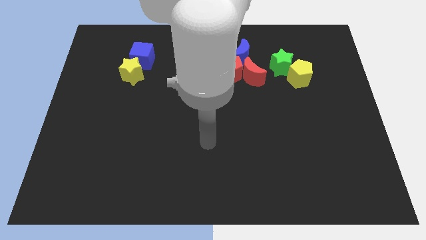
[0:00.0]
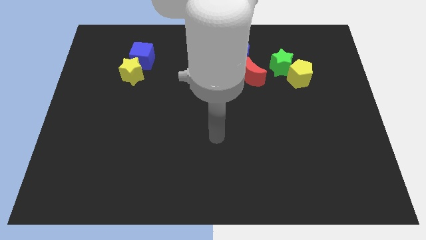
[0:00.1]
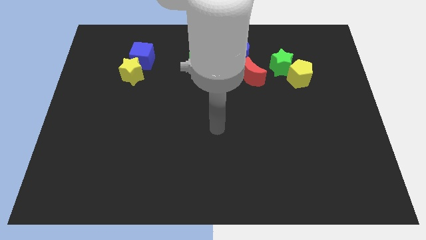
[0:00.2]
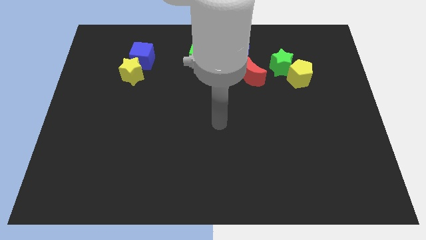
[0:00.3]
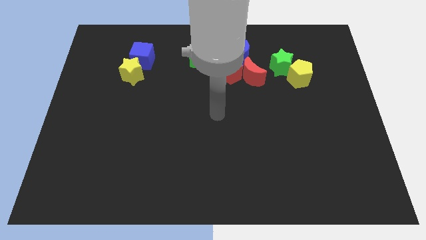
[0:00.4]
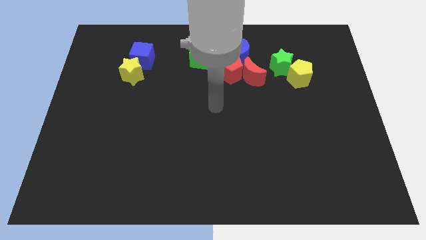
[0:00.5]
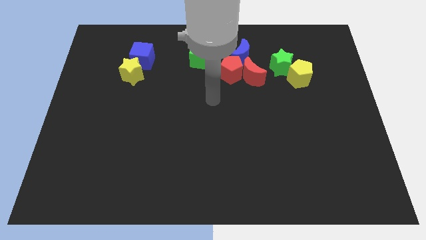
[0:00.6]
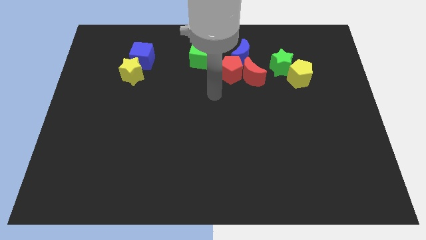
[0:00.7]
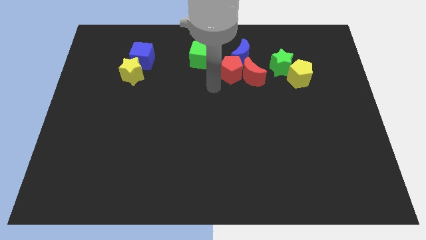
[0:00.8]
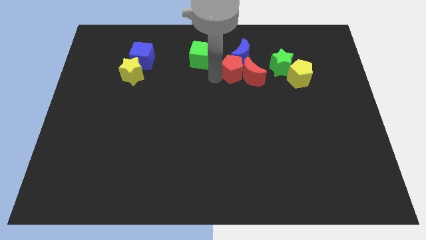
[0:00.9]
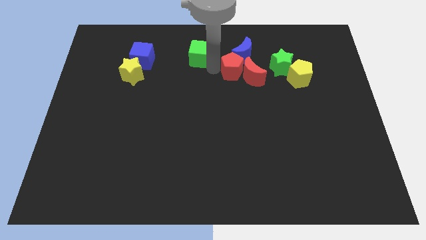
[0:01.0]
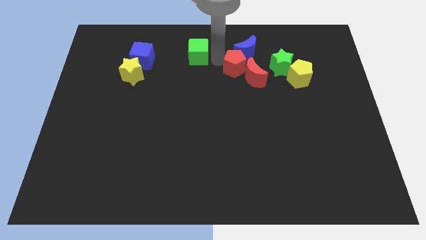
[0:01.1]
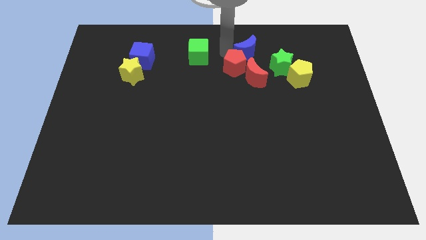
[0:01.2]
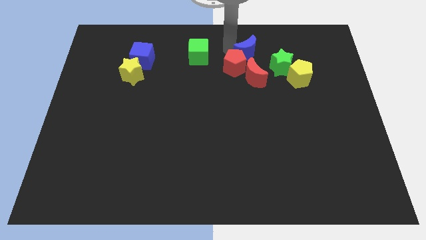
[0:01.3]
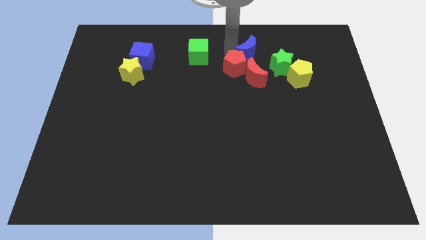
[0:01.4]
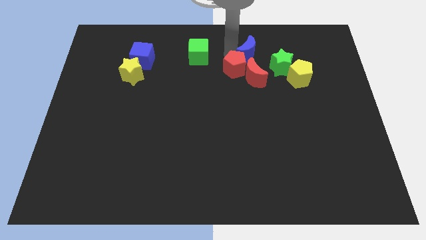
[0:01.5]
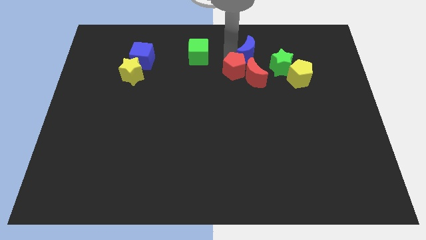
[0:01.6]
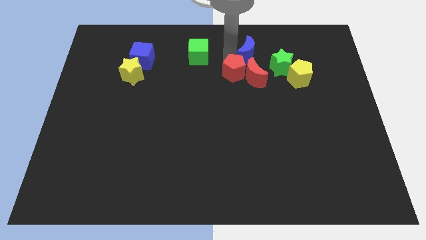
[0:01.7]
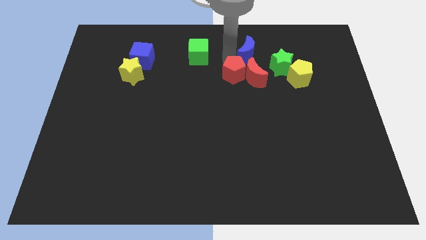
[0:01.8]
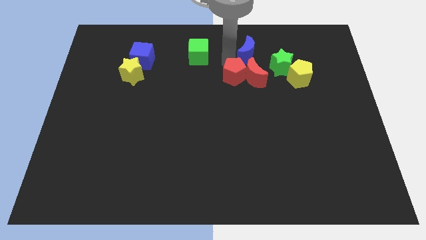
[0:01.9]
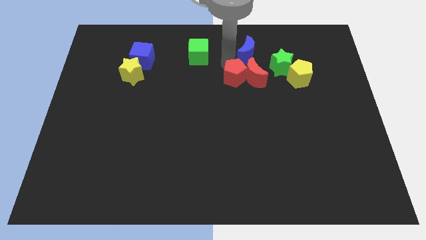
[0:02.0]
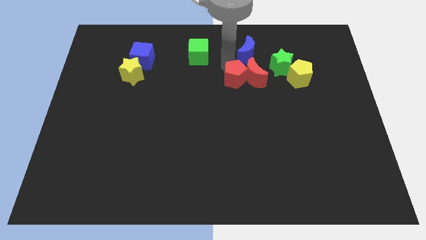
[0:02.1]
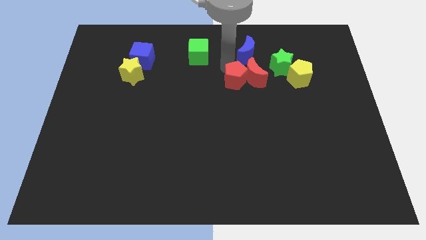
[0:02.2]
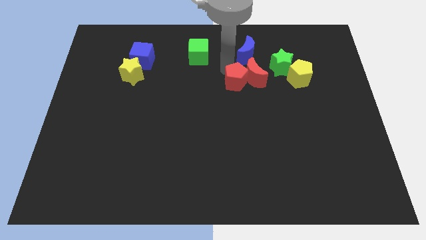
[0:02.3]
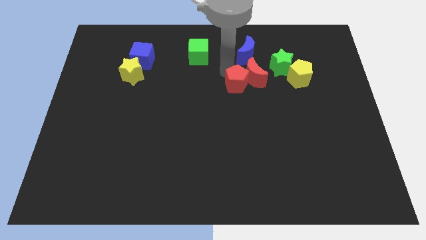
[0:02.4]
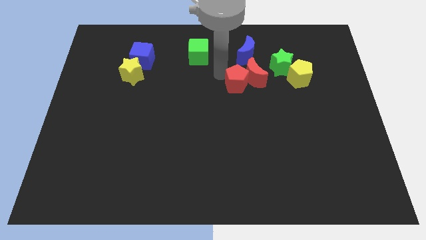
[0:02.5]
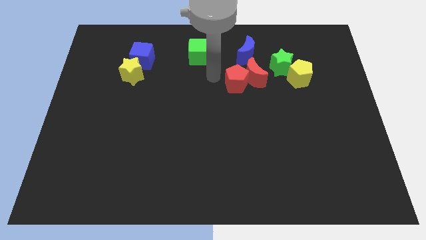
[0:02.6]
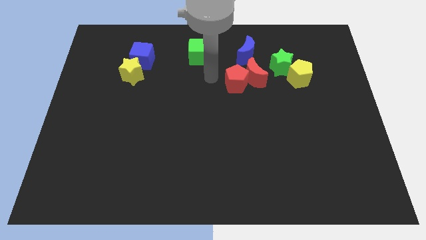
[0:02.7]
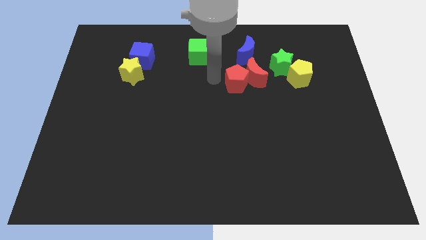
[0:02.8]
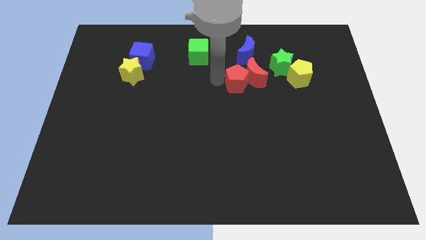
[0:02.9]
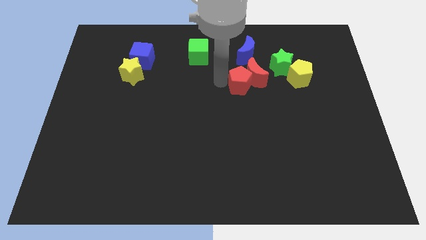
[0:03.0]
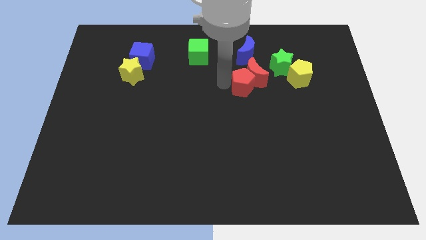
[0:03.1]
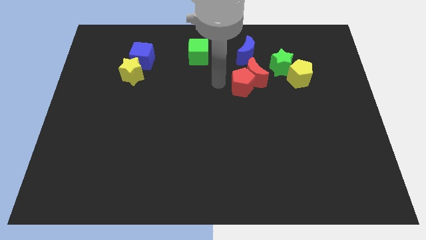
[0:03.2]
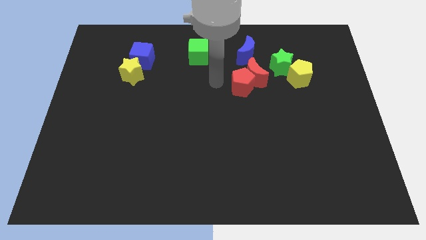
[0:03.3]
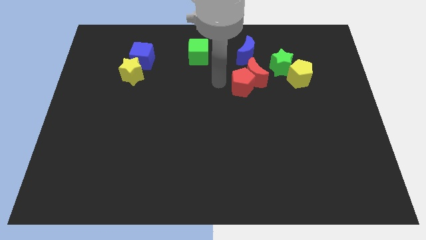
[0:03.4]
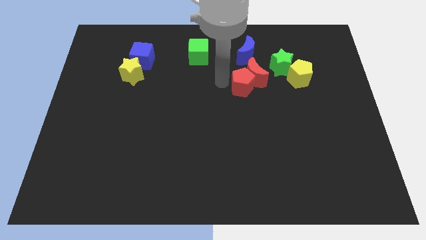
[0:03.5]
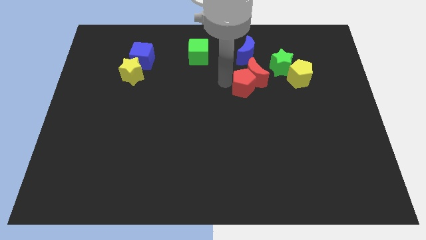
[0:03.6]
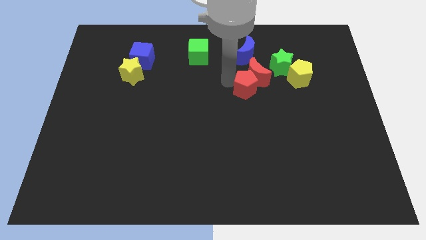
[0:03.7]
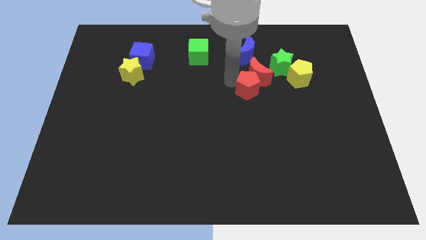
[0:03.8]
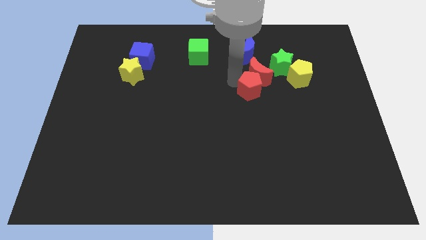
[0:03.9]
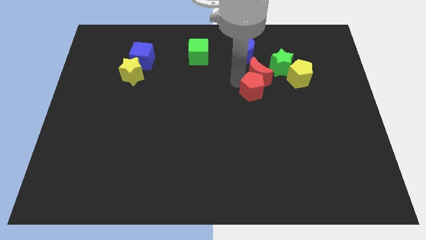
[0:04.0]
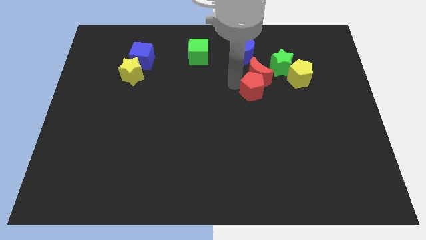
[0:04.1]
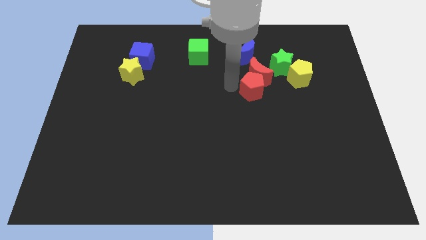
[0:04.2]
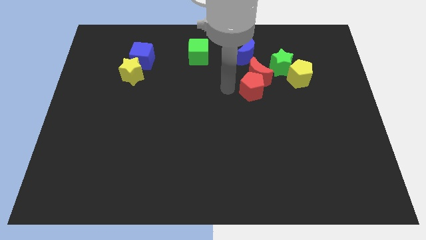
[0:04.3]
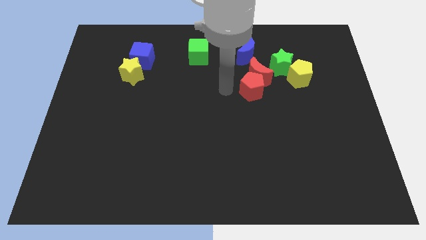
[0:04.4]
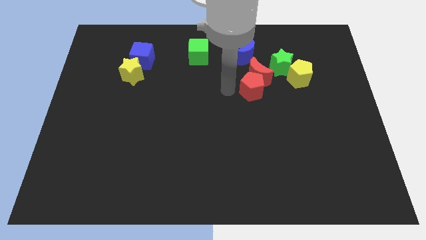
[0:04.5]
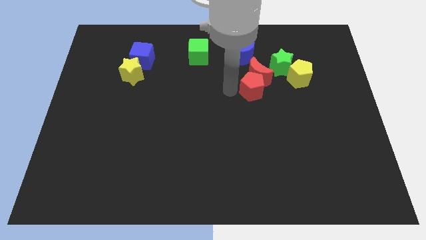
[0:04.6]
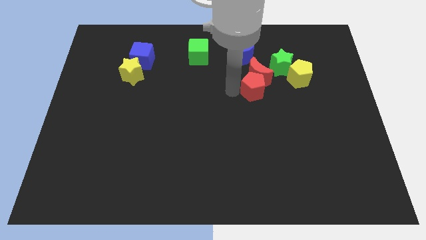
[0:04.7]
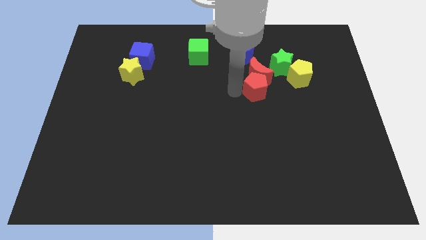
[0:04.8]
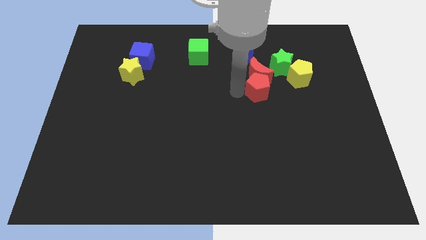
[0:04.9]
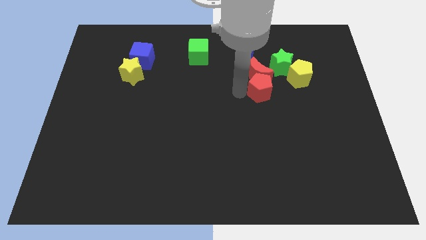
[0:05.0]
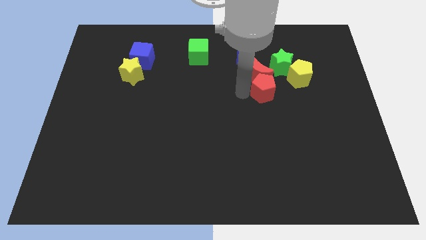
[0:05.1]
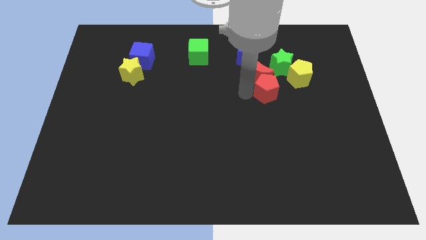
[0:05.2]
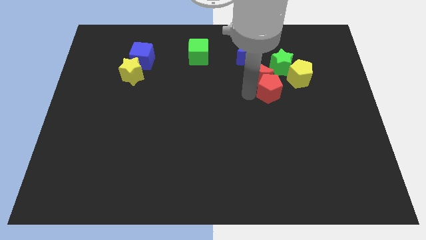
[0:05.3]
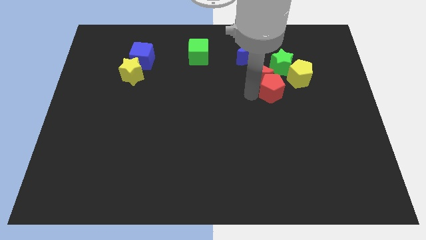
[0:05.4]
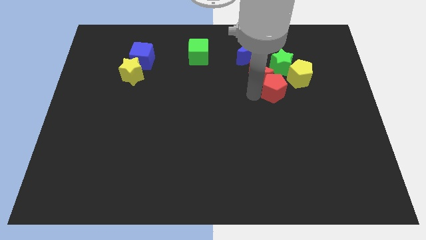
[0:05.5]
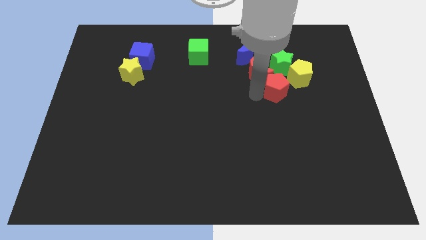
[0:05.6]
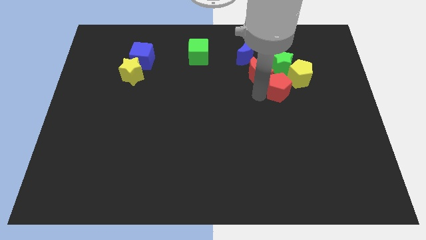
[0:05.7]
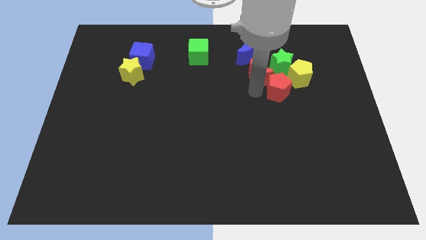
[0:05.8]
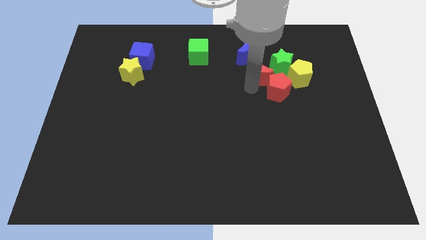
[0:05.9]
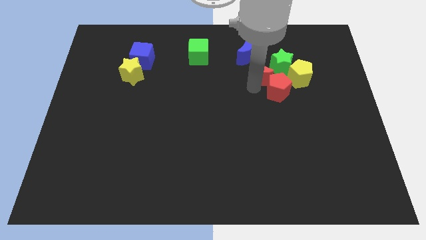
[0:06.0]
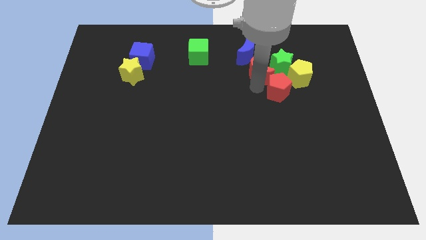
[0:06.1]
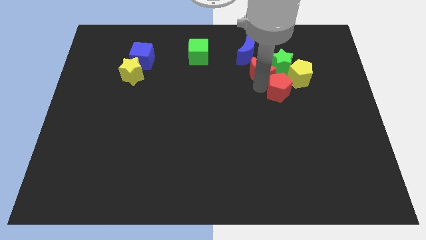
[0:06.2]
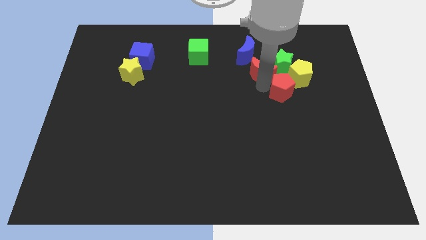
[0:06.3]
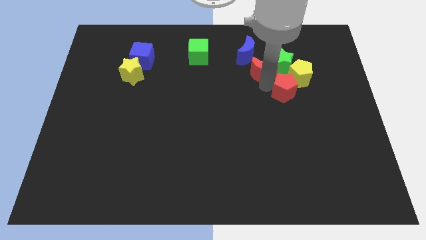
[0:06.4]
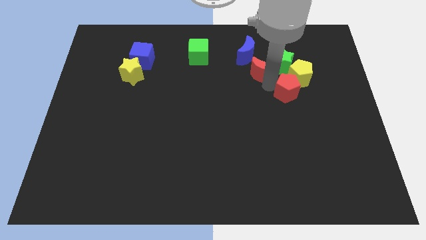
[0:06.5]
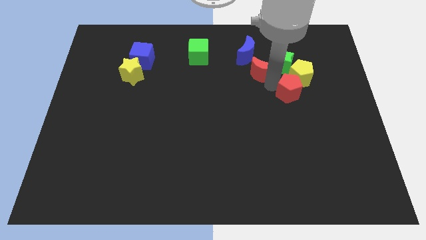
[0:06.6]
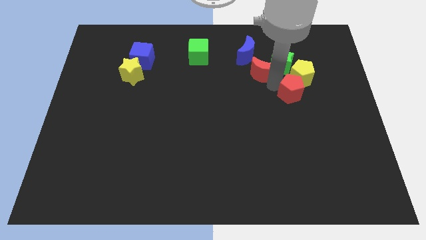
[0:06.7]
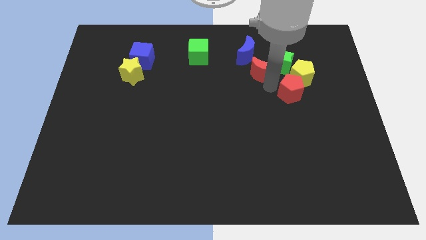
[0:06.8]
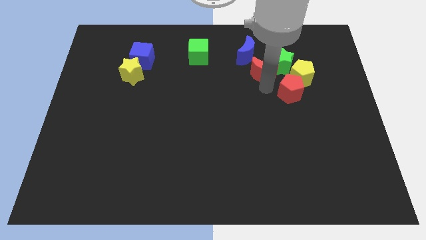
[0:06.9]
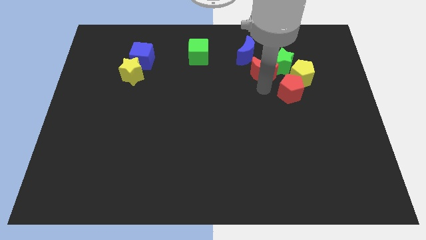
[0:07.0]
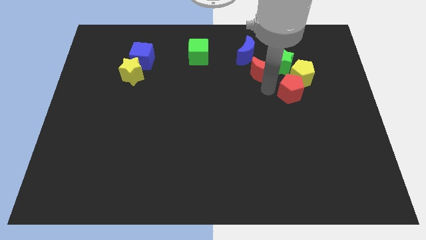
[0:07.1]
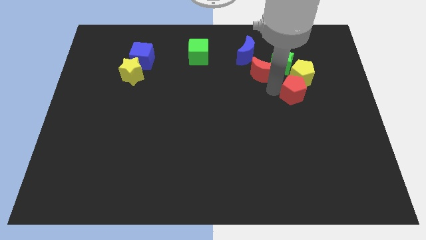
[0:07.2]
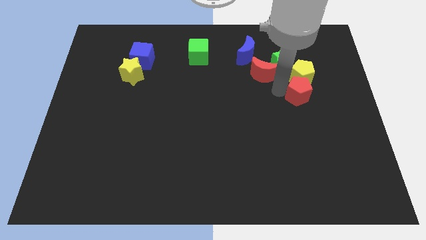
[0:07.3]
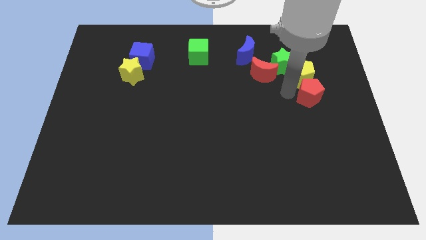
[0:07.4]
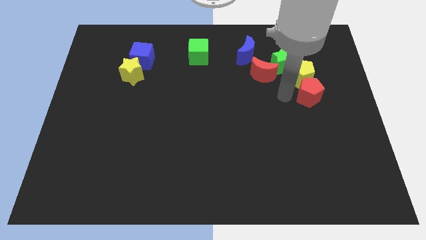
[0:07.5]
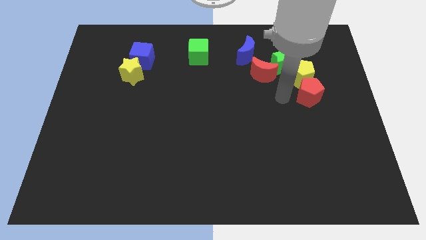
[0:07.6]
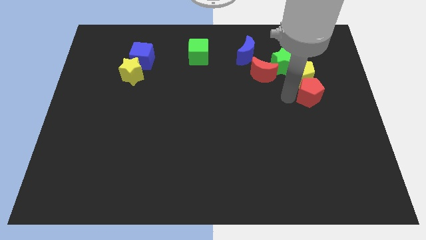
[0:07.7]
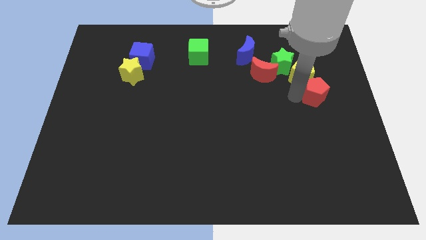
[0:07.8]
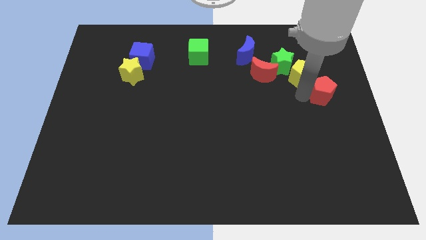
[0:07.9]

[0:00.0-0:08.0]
push the red pentagon to the center right
